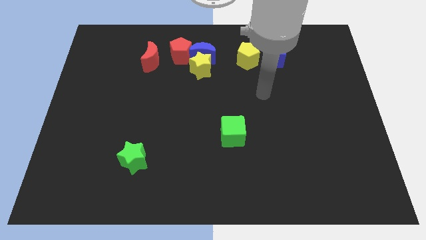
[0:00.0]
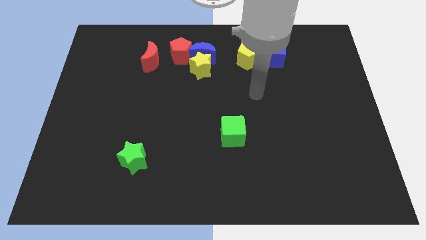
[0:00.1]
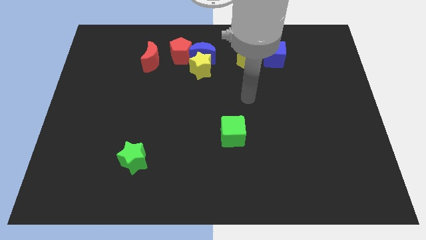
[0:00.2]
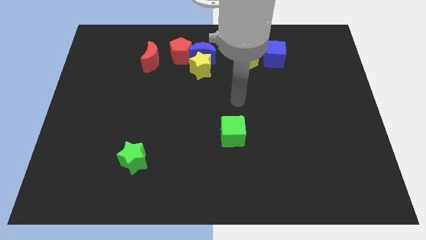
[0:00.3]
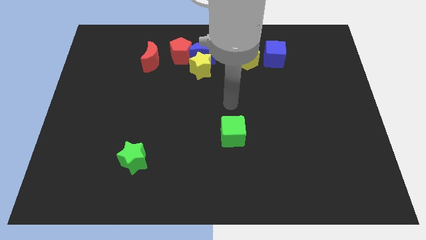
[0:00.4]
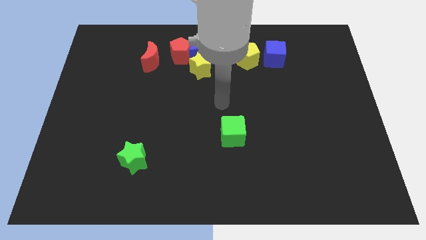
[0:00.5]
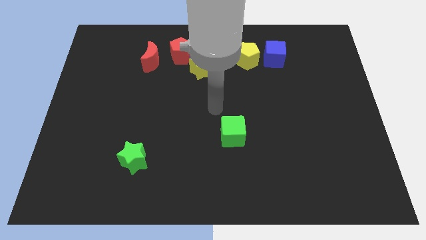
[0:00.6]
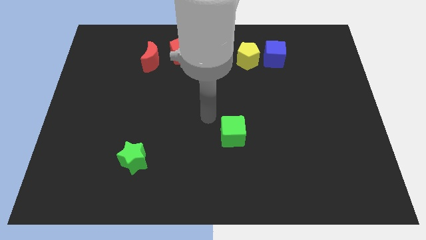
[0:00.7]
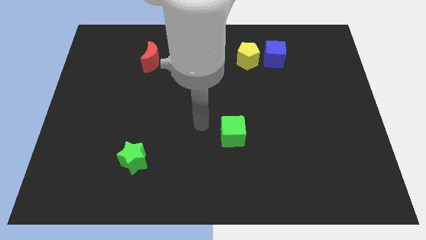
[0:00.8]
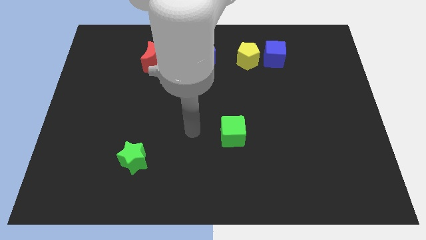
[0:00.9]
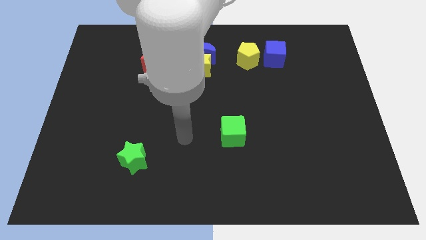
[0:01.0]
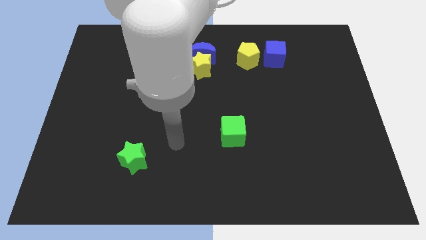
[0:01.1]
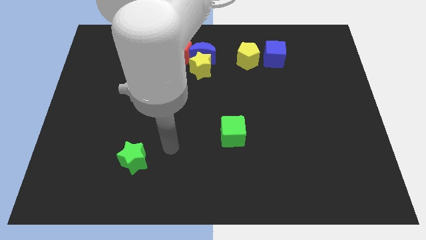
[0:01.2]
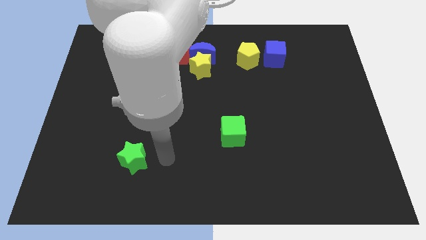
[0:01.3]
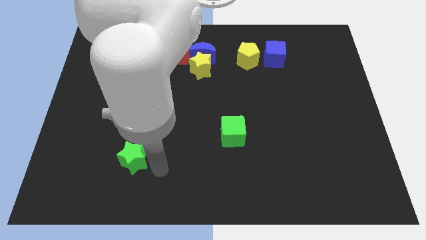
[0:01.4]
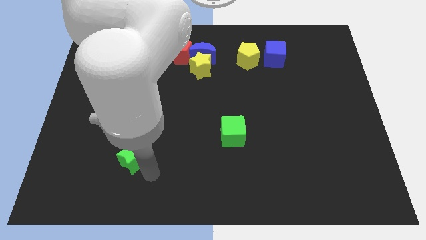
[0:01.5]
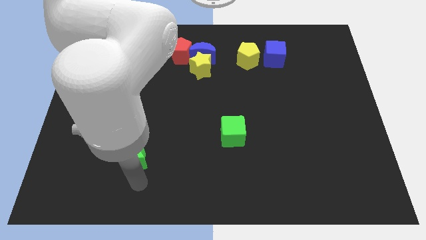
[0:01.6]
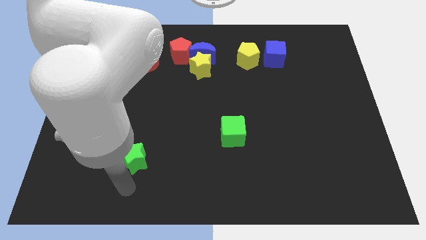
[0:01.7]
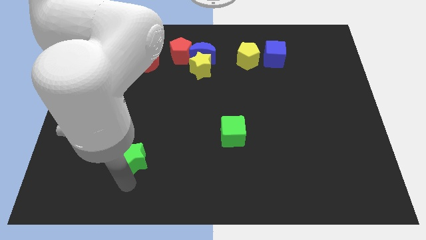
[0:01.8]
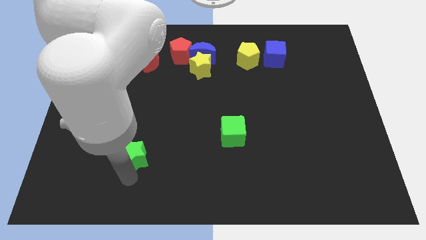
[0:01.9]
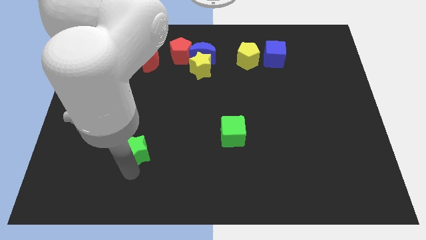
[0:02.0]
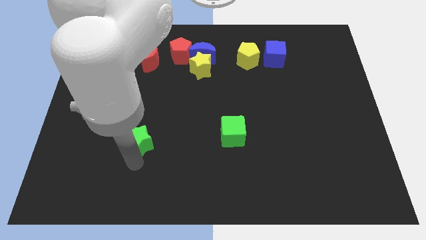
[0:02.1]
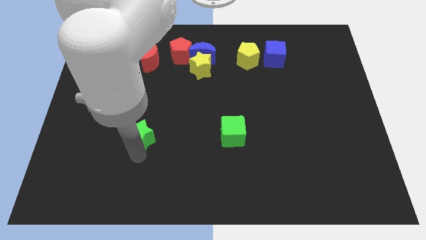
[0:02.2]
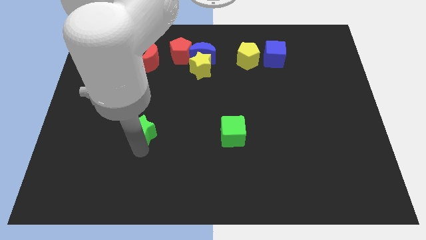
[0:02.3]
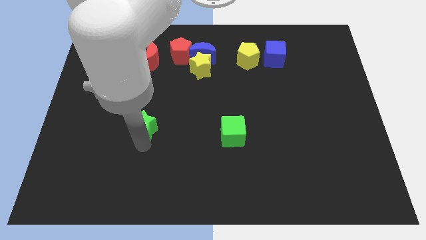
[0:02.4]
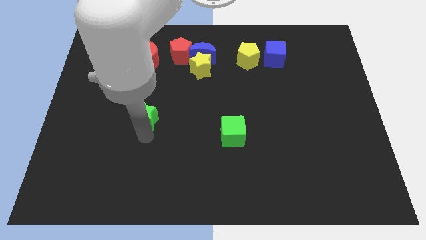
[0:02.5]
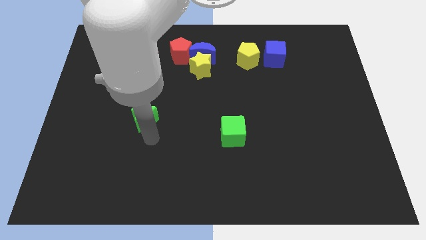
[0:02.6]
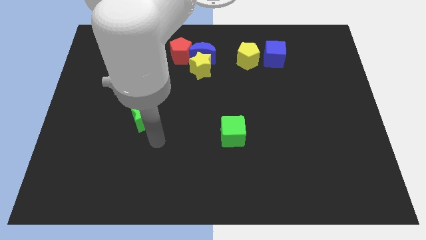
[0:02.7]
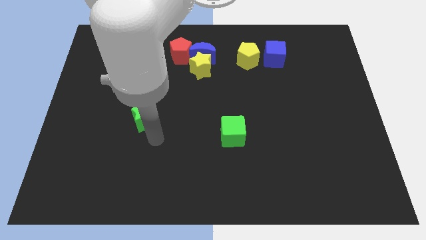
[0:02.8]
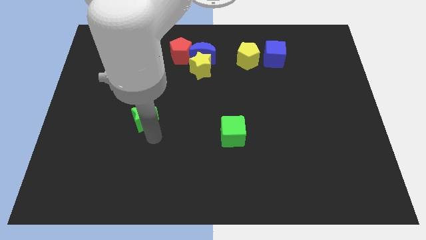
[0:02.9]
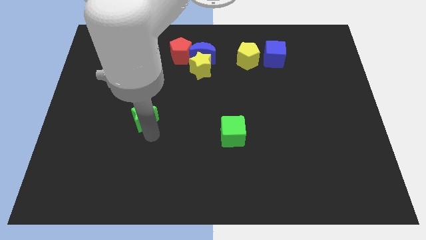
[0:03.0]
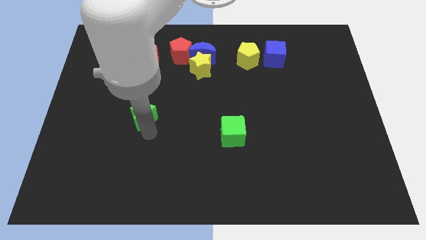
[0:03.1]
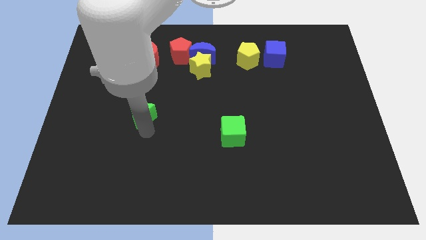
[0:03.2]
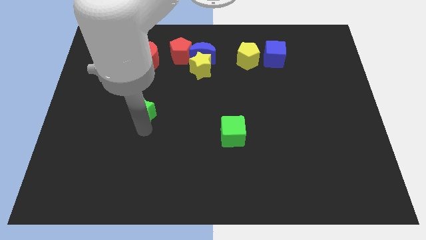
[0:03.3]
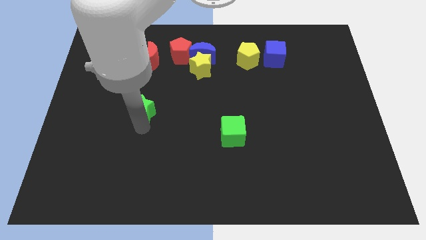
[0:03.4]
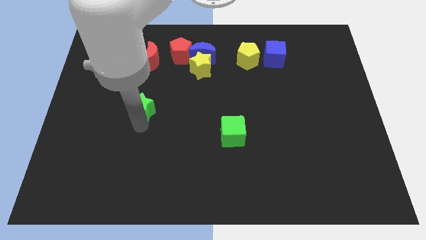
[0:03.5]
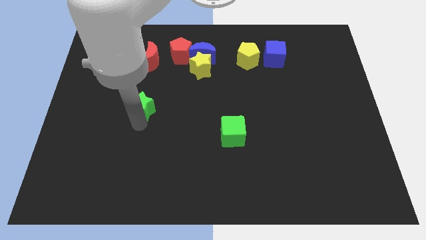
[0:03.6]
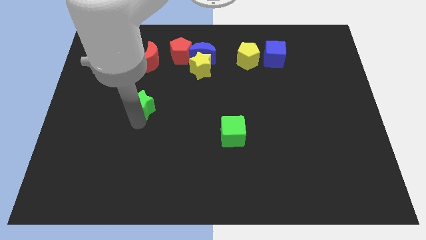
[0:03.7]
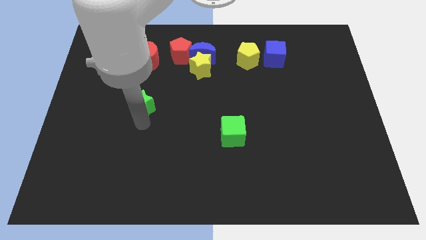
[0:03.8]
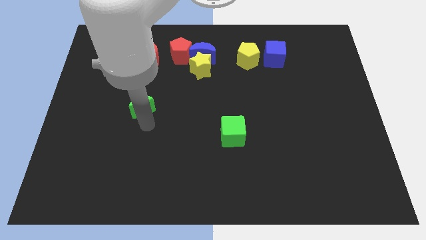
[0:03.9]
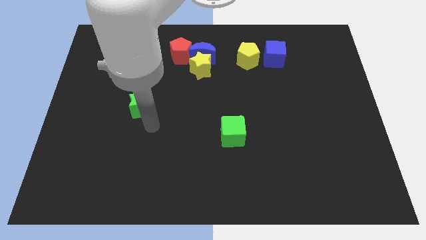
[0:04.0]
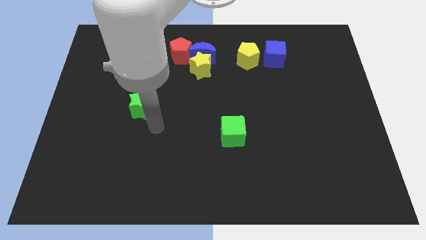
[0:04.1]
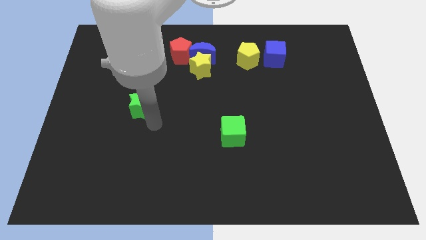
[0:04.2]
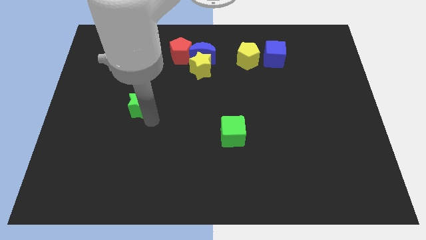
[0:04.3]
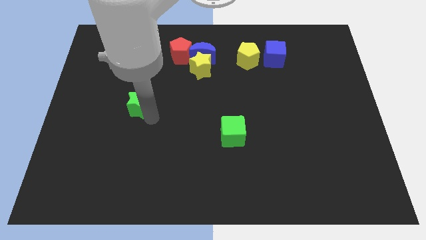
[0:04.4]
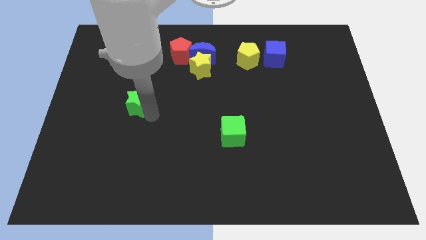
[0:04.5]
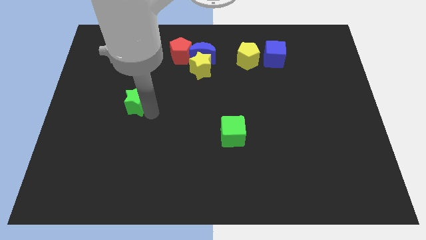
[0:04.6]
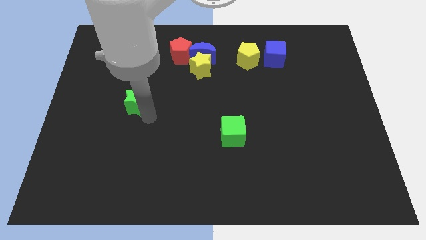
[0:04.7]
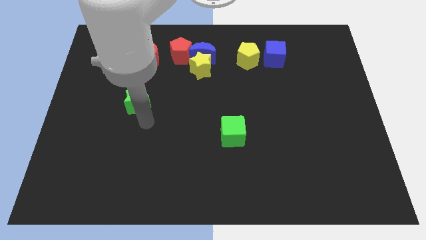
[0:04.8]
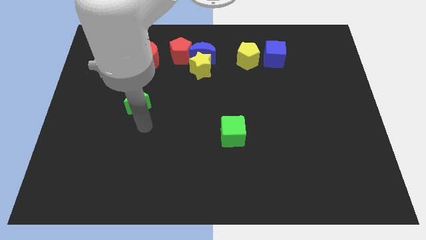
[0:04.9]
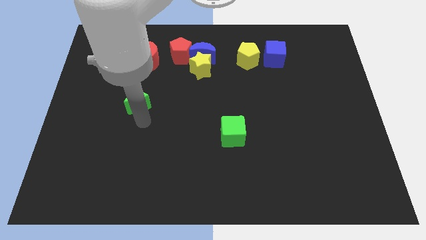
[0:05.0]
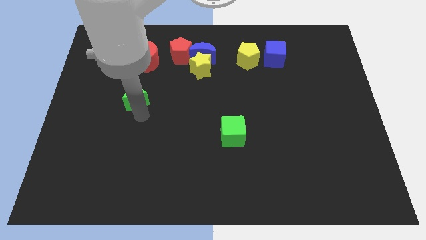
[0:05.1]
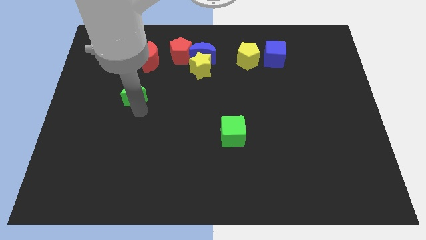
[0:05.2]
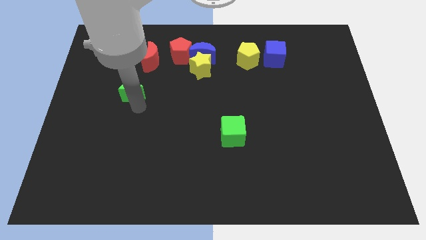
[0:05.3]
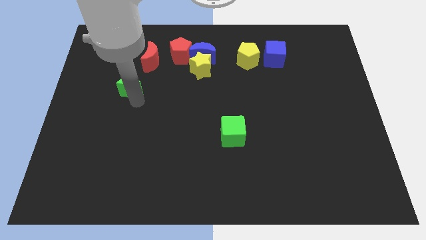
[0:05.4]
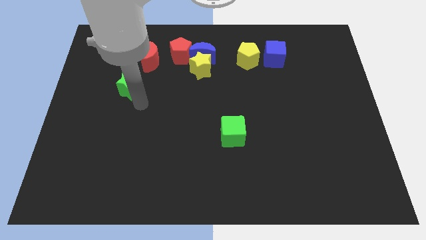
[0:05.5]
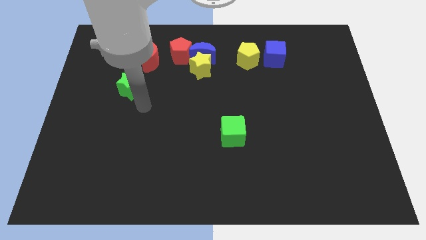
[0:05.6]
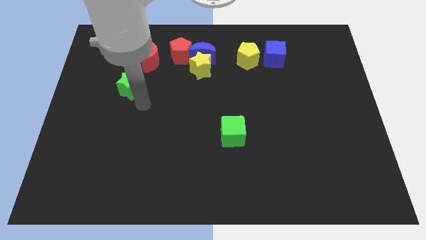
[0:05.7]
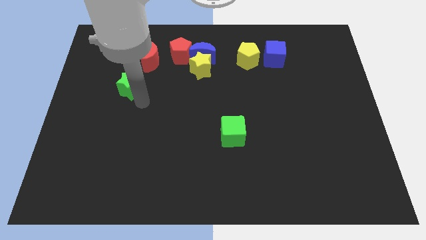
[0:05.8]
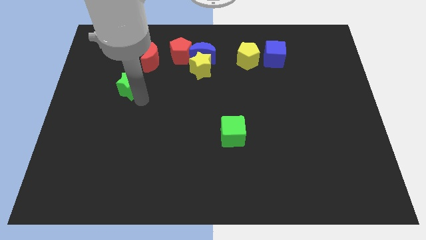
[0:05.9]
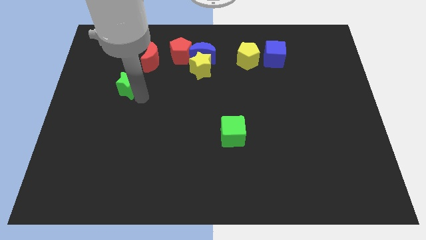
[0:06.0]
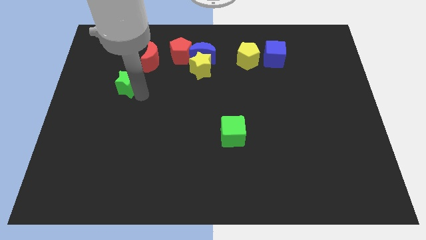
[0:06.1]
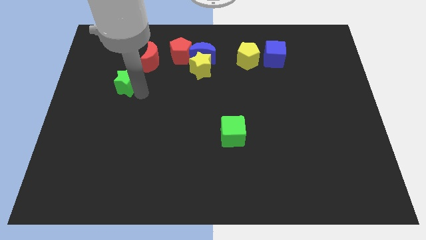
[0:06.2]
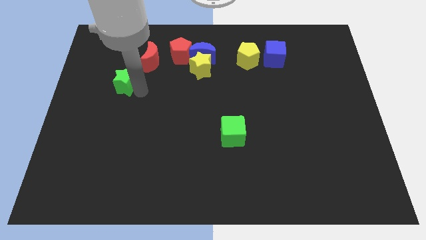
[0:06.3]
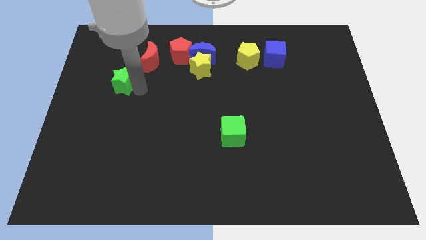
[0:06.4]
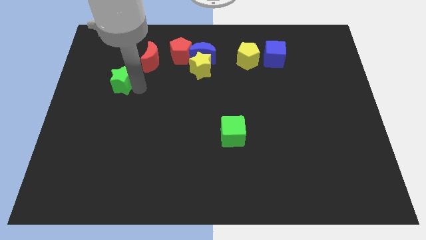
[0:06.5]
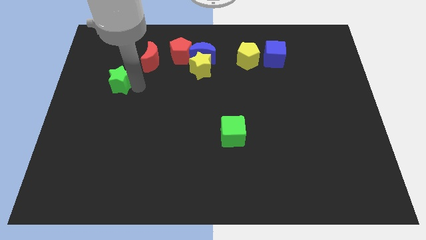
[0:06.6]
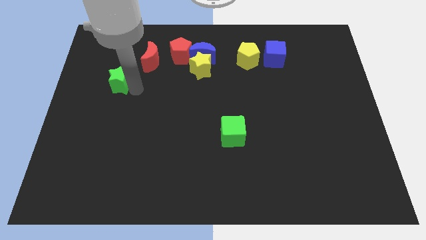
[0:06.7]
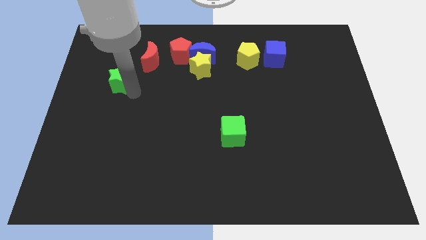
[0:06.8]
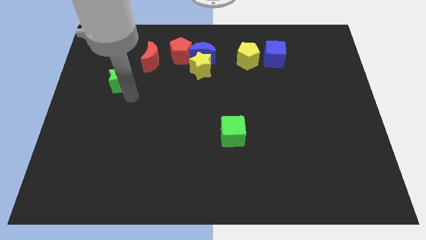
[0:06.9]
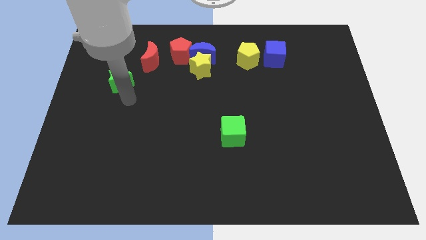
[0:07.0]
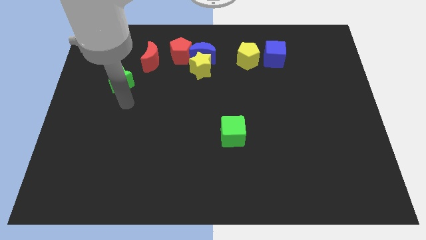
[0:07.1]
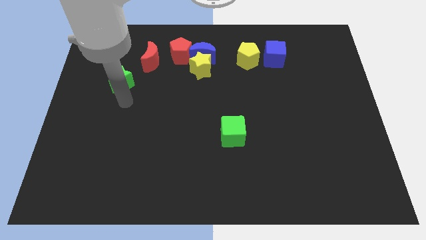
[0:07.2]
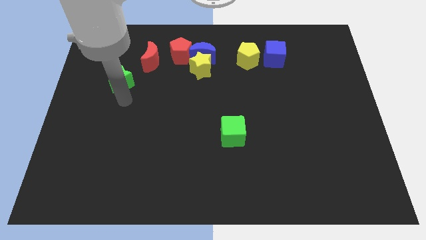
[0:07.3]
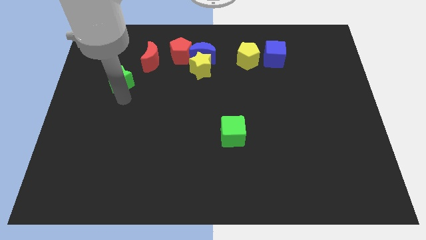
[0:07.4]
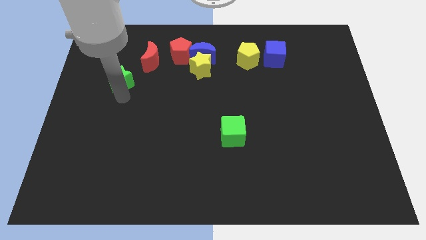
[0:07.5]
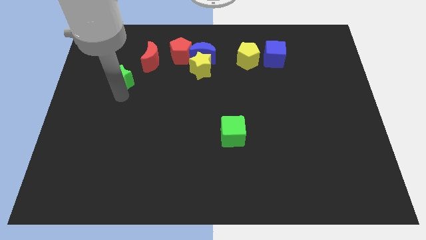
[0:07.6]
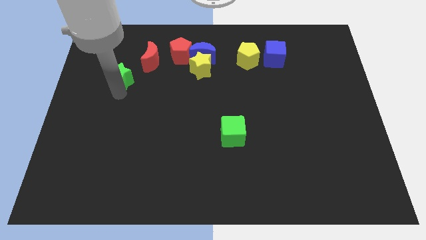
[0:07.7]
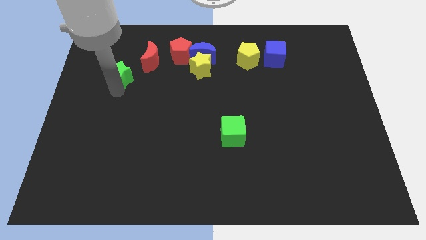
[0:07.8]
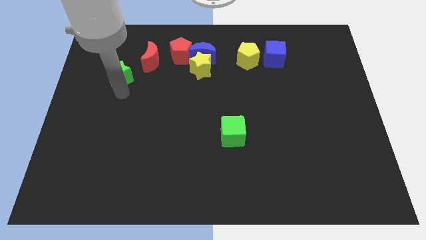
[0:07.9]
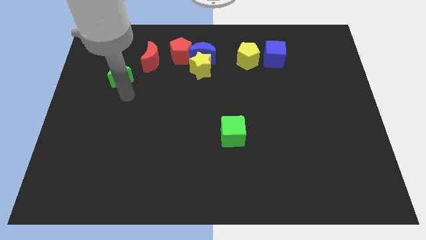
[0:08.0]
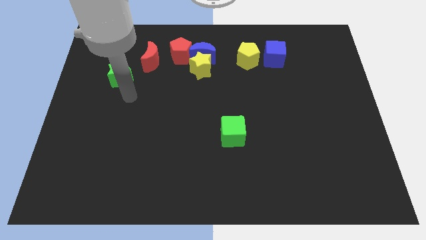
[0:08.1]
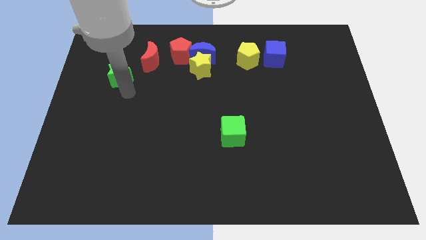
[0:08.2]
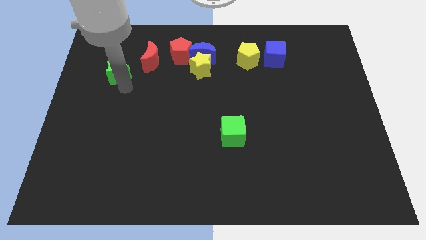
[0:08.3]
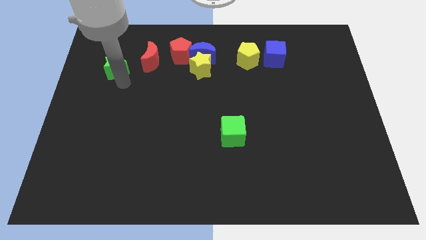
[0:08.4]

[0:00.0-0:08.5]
move the green star to the left side of the red moon
